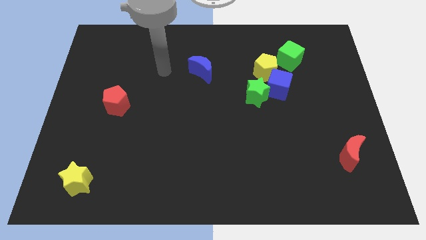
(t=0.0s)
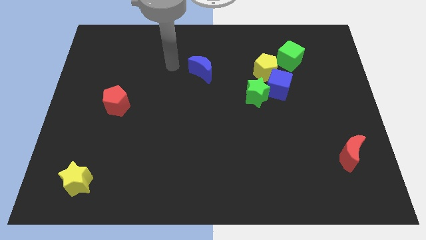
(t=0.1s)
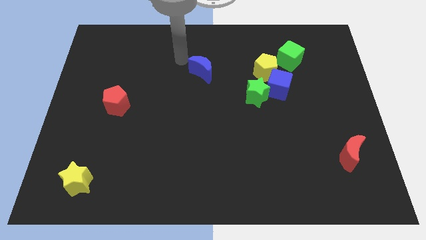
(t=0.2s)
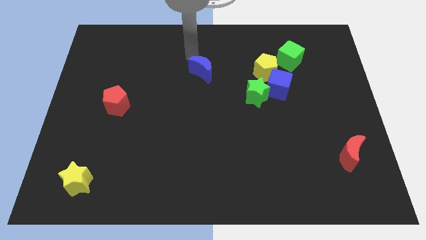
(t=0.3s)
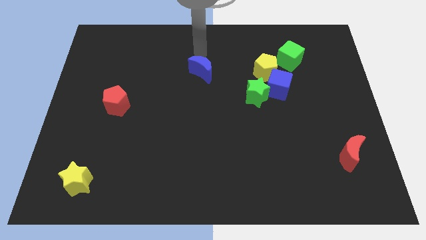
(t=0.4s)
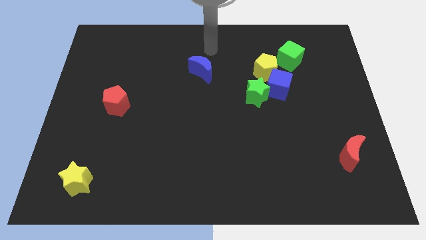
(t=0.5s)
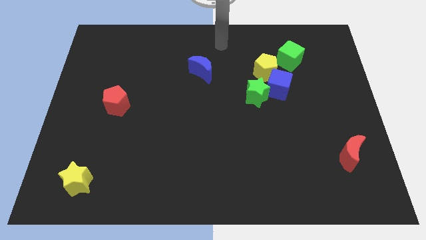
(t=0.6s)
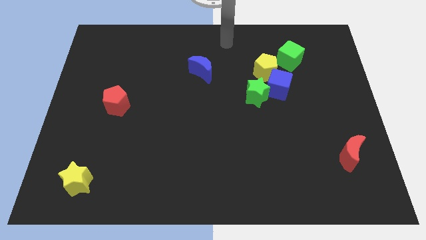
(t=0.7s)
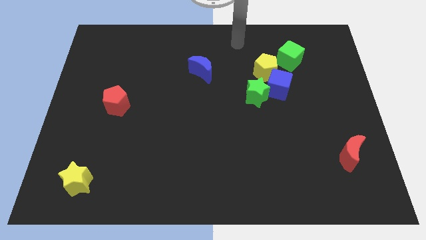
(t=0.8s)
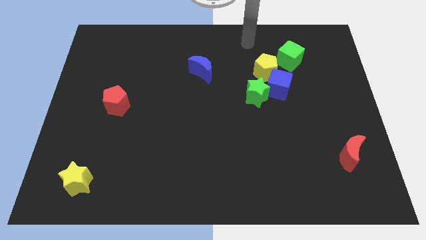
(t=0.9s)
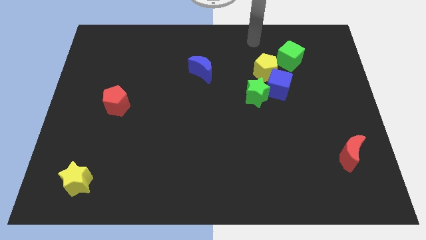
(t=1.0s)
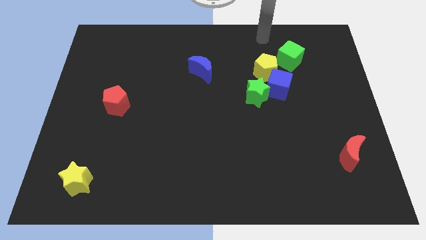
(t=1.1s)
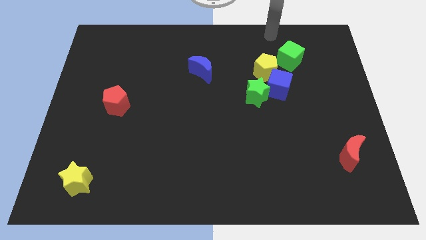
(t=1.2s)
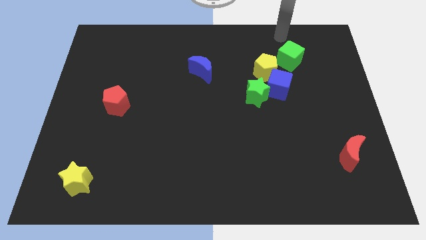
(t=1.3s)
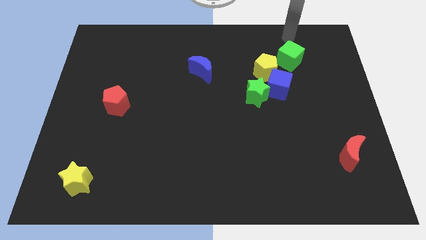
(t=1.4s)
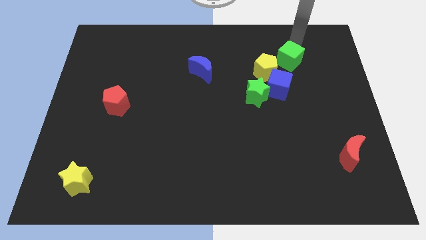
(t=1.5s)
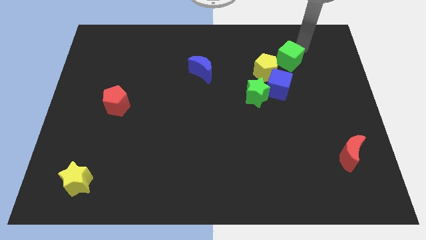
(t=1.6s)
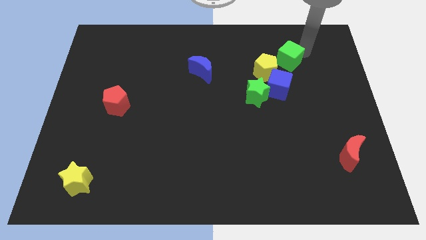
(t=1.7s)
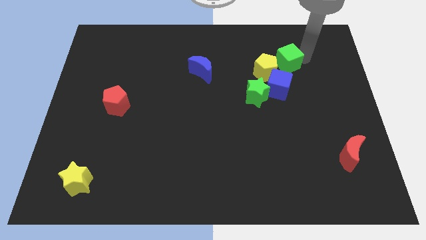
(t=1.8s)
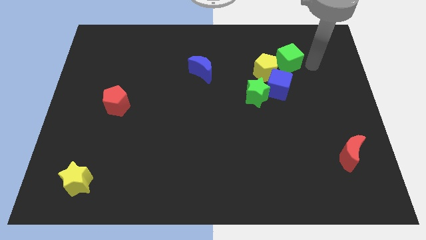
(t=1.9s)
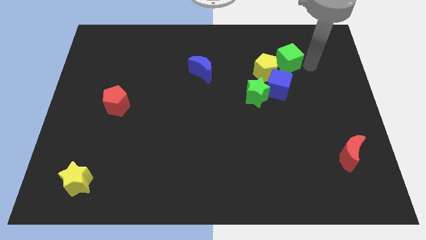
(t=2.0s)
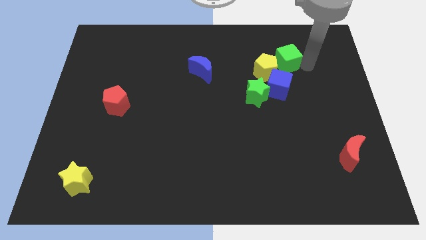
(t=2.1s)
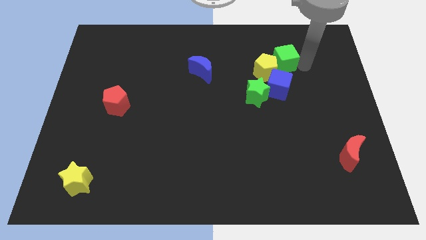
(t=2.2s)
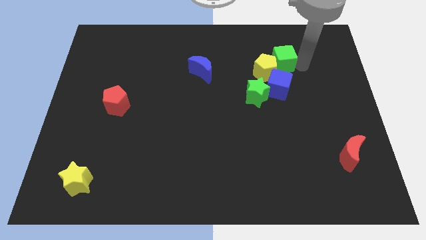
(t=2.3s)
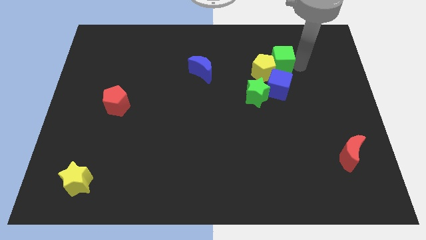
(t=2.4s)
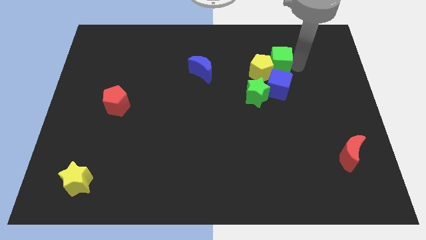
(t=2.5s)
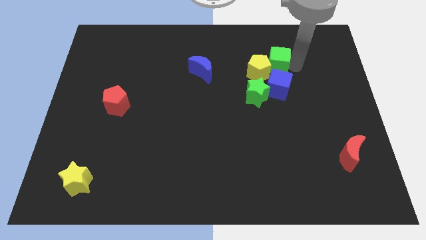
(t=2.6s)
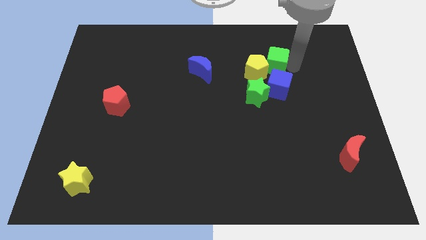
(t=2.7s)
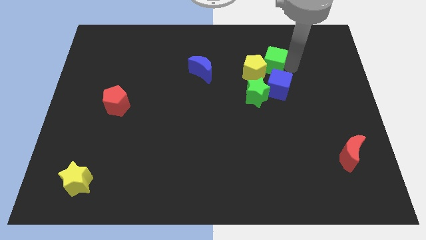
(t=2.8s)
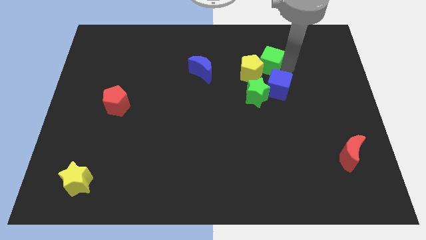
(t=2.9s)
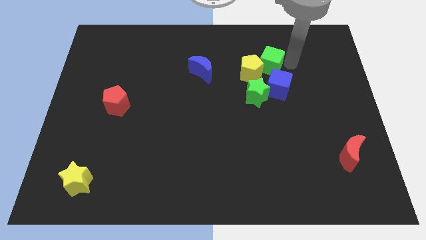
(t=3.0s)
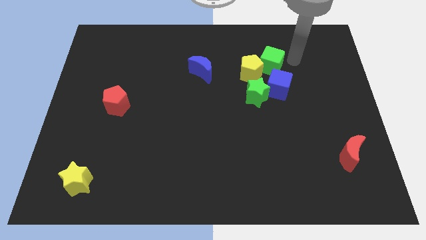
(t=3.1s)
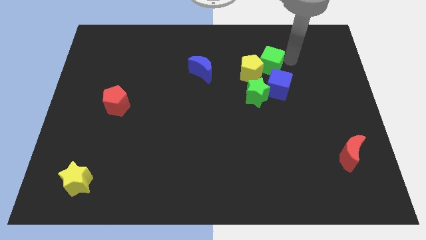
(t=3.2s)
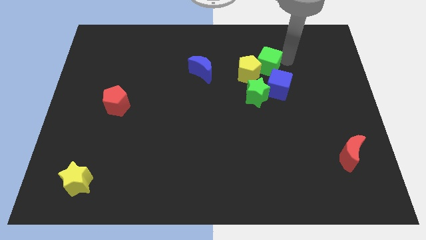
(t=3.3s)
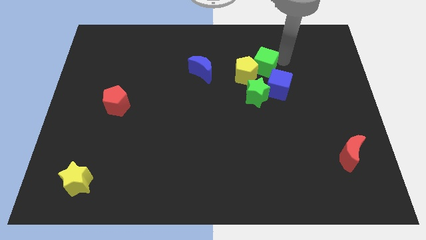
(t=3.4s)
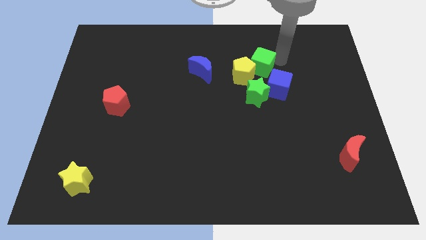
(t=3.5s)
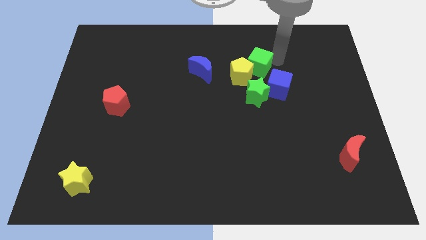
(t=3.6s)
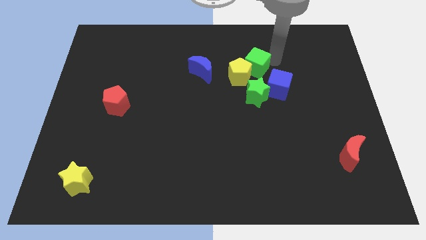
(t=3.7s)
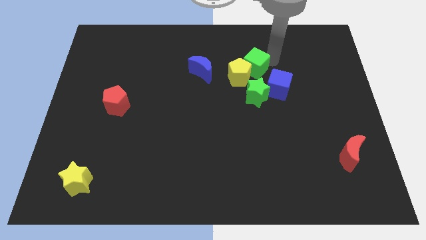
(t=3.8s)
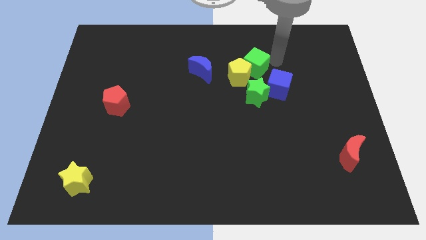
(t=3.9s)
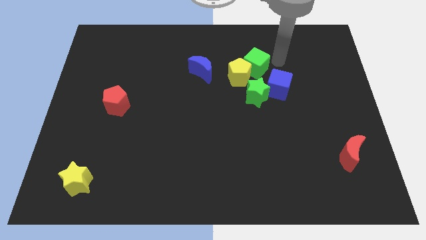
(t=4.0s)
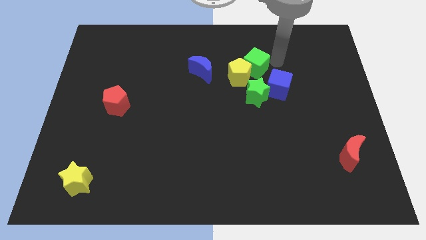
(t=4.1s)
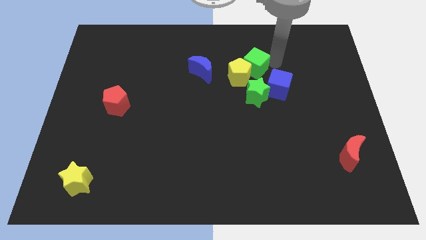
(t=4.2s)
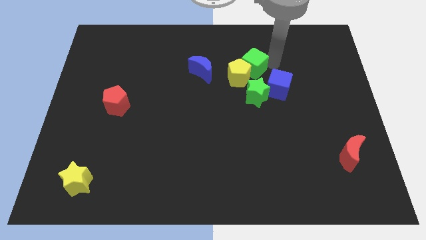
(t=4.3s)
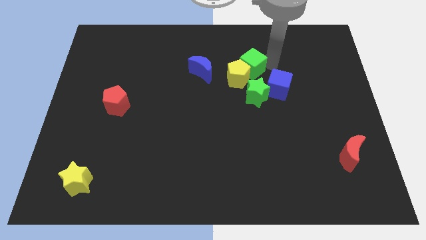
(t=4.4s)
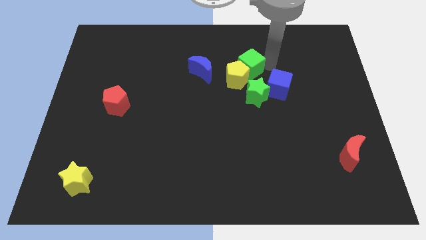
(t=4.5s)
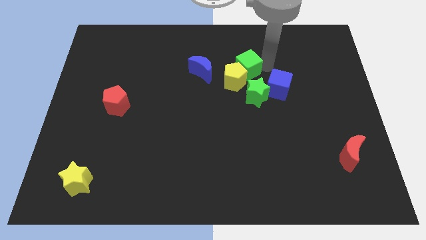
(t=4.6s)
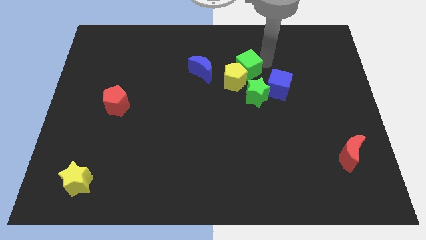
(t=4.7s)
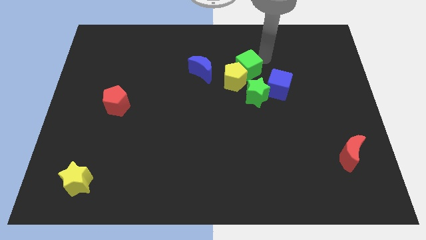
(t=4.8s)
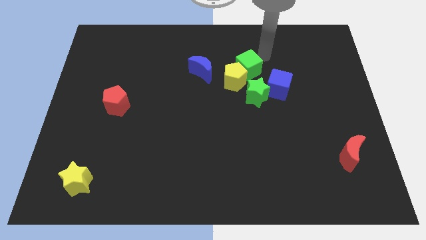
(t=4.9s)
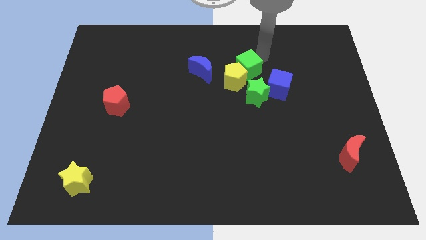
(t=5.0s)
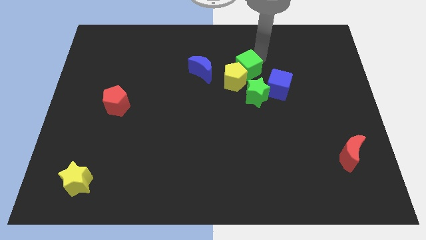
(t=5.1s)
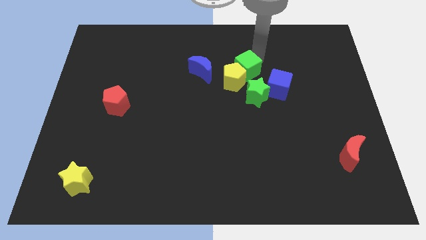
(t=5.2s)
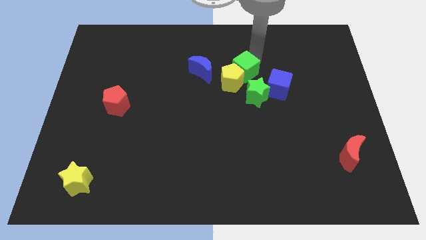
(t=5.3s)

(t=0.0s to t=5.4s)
push the green cube to the center
